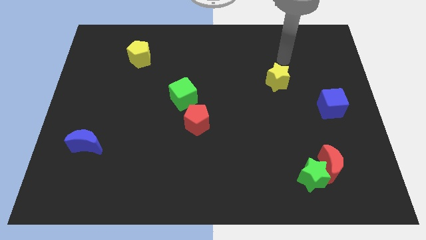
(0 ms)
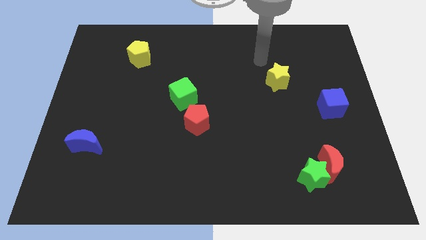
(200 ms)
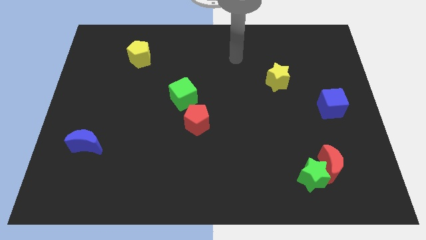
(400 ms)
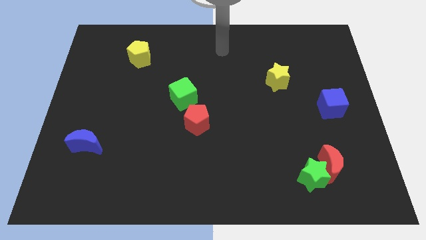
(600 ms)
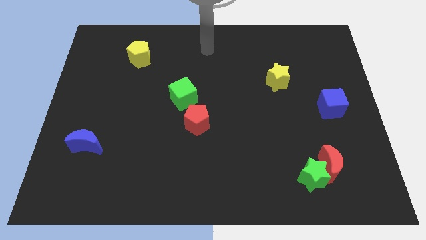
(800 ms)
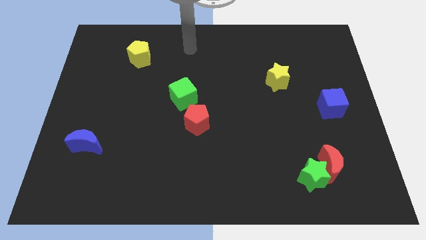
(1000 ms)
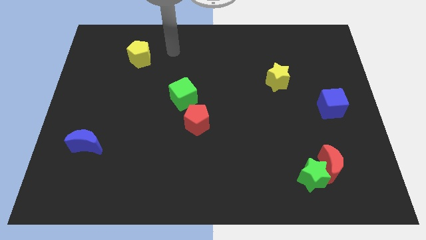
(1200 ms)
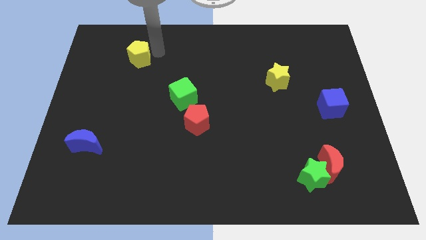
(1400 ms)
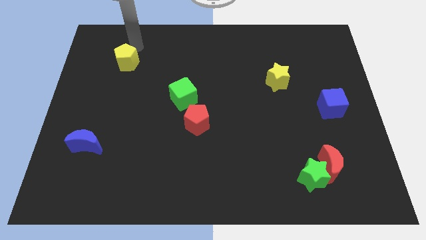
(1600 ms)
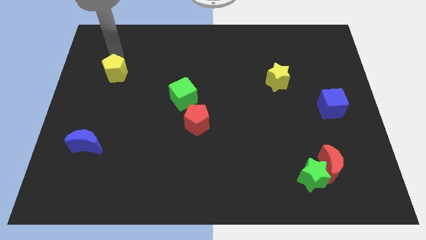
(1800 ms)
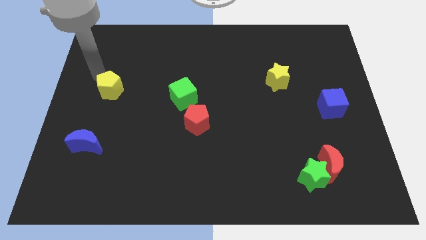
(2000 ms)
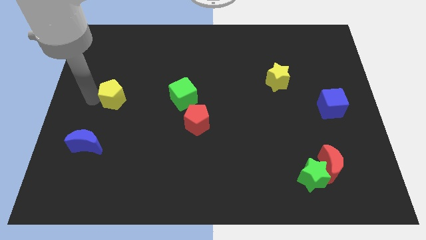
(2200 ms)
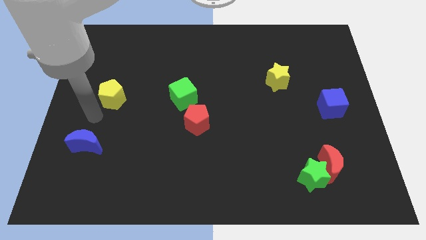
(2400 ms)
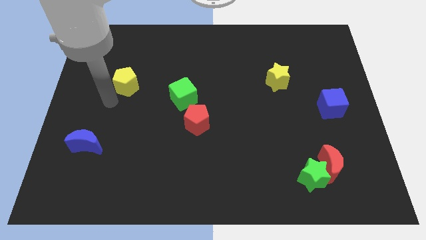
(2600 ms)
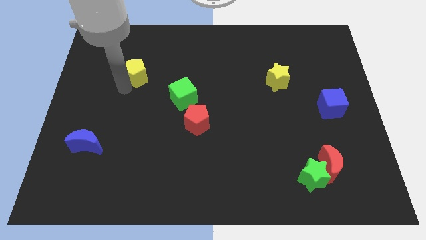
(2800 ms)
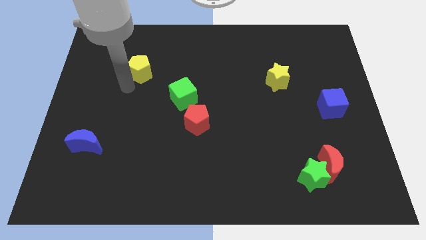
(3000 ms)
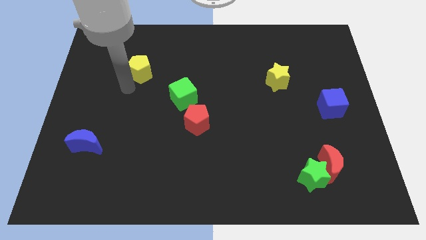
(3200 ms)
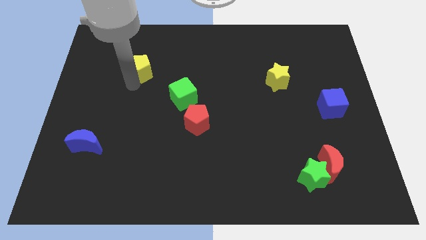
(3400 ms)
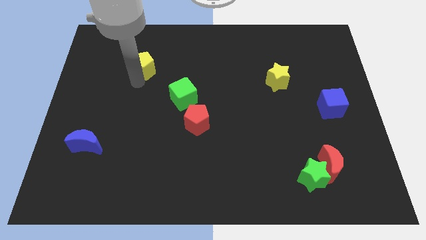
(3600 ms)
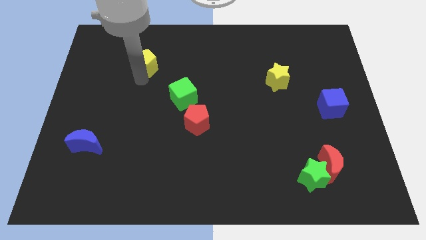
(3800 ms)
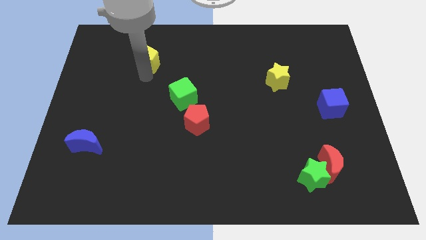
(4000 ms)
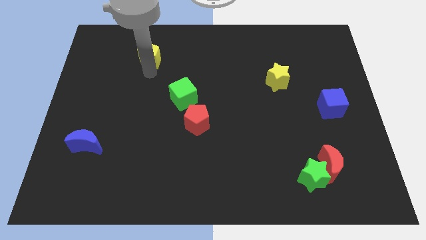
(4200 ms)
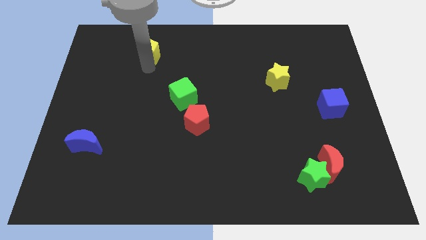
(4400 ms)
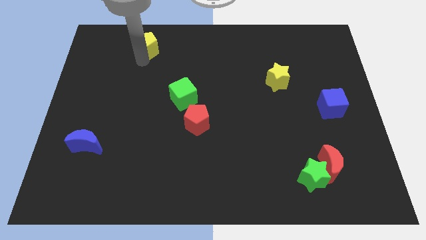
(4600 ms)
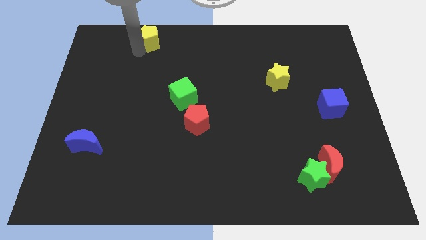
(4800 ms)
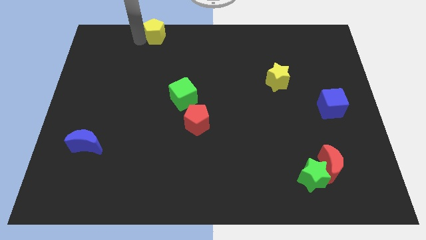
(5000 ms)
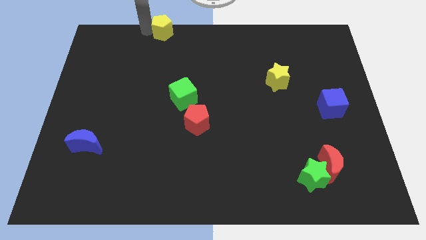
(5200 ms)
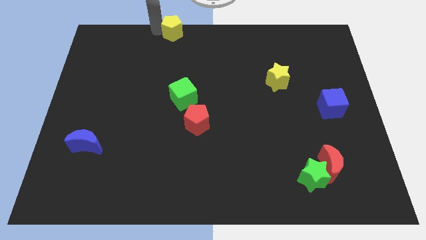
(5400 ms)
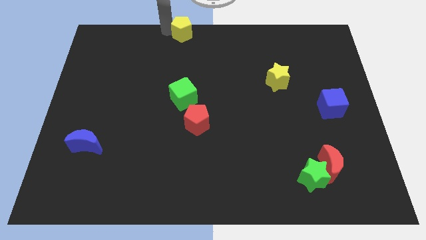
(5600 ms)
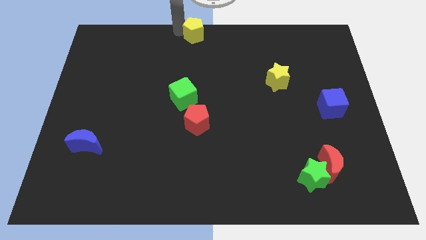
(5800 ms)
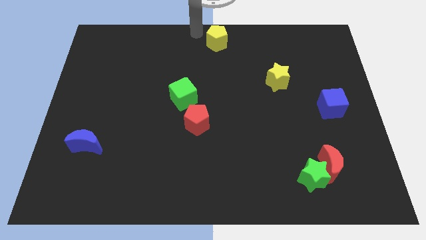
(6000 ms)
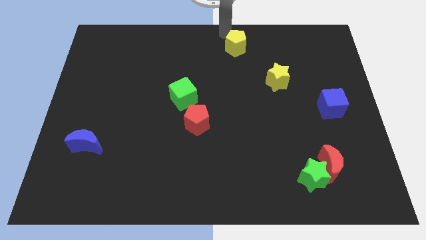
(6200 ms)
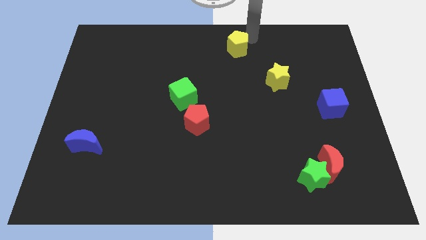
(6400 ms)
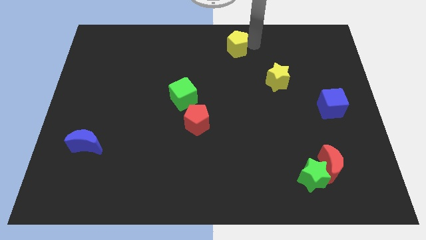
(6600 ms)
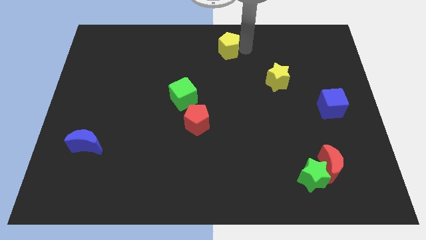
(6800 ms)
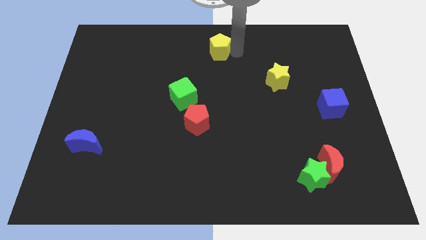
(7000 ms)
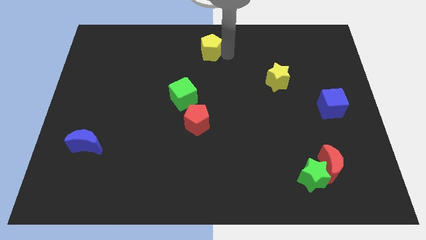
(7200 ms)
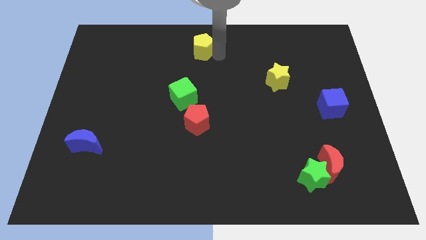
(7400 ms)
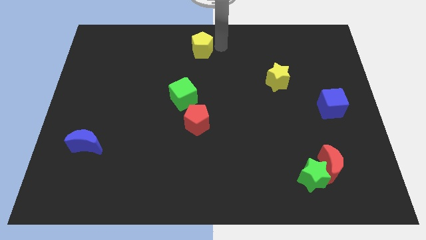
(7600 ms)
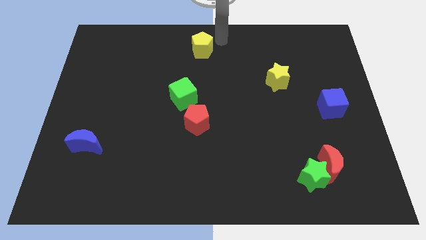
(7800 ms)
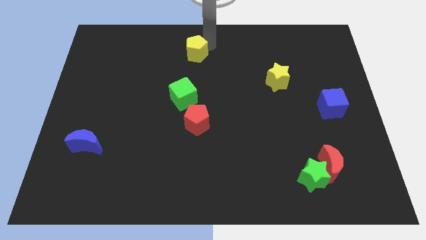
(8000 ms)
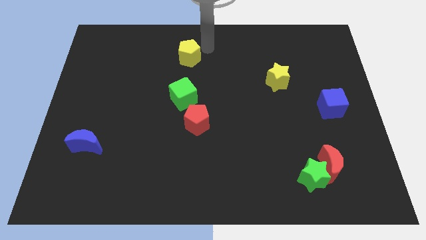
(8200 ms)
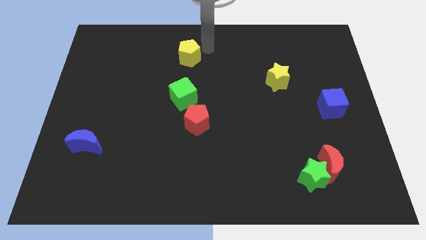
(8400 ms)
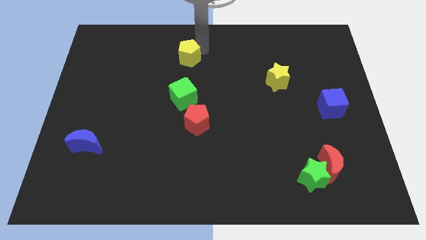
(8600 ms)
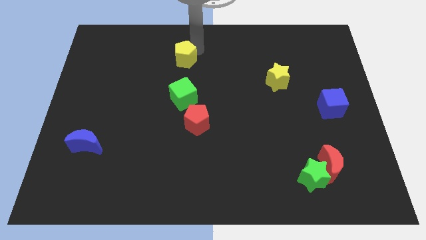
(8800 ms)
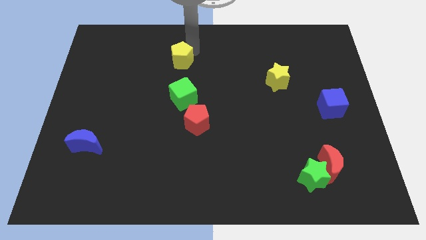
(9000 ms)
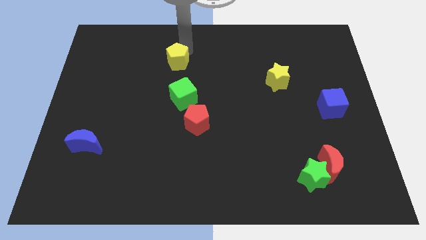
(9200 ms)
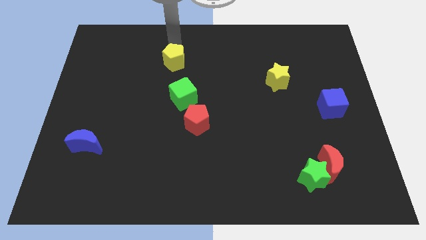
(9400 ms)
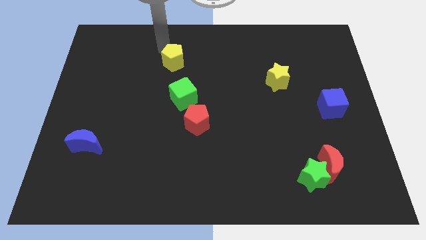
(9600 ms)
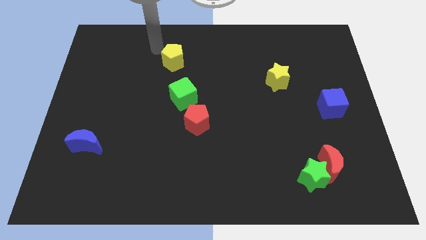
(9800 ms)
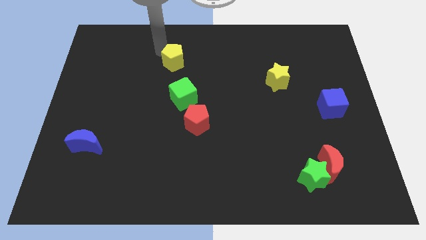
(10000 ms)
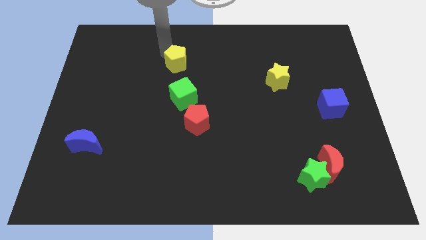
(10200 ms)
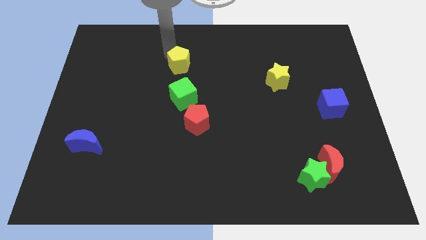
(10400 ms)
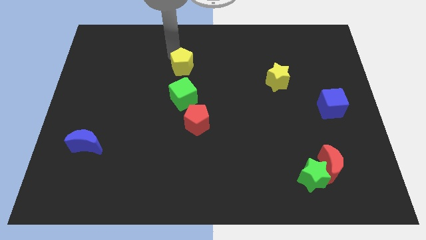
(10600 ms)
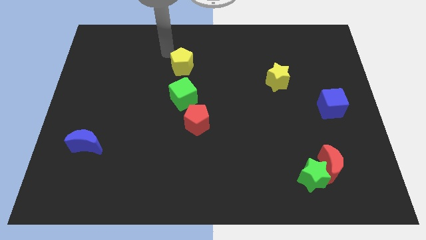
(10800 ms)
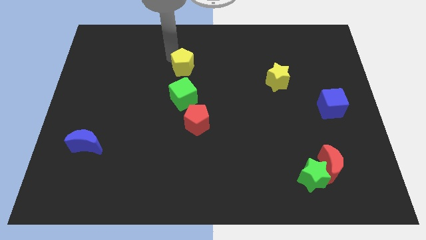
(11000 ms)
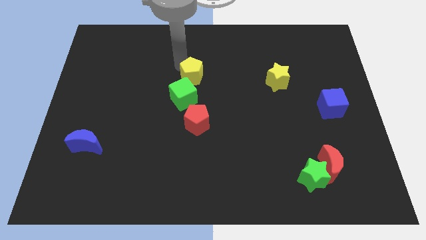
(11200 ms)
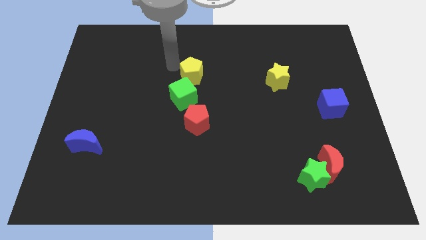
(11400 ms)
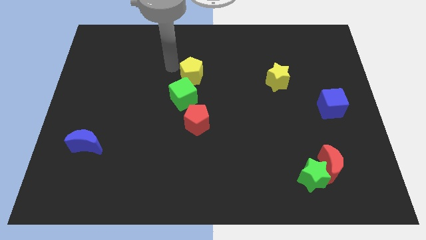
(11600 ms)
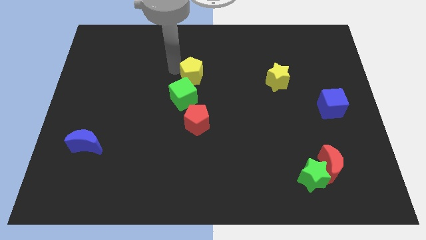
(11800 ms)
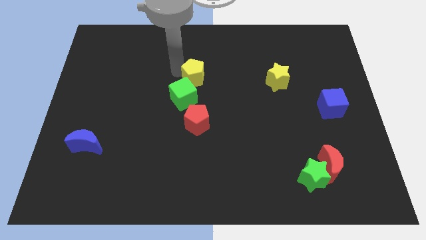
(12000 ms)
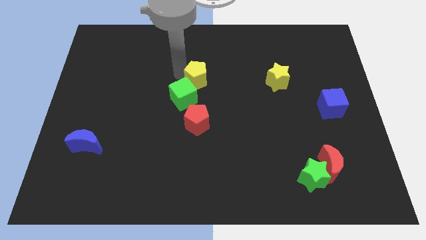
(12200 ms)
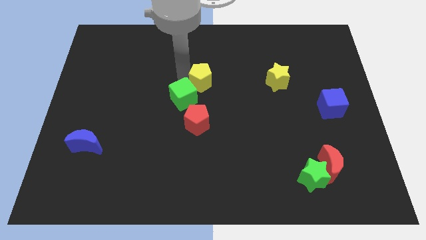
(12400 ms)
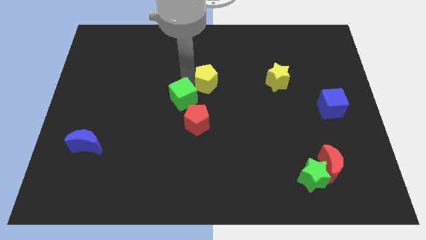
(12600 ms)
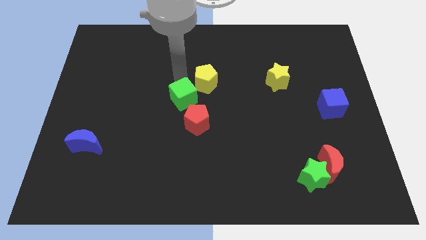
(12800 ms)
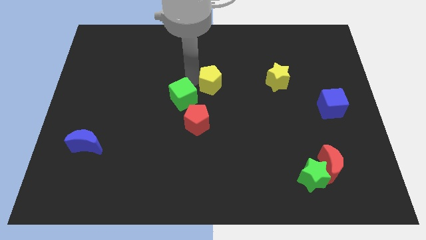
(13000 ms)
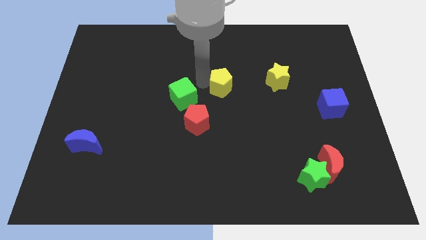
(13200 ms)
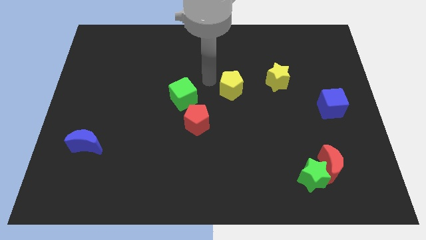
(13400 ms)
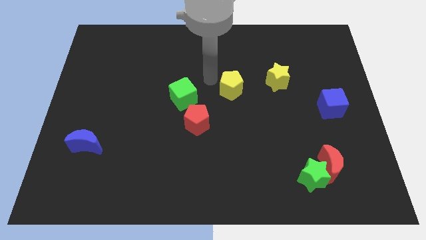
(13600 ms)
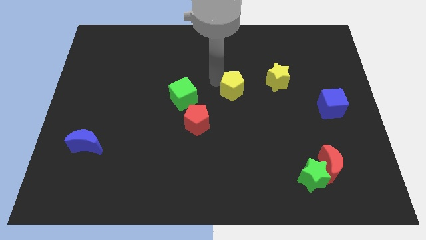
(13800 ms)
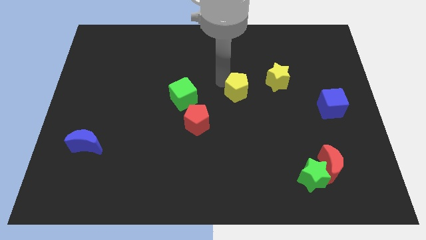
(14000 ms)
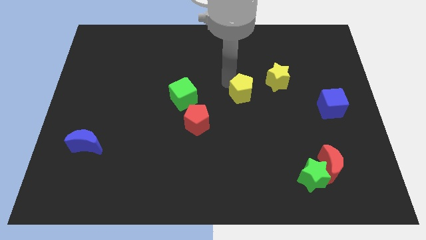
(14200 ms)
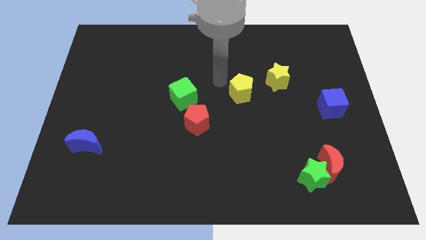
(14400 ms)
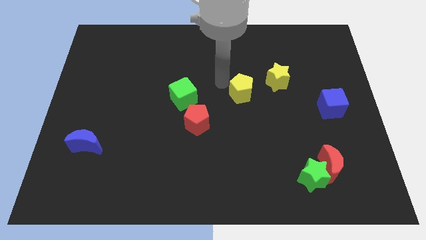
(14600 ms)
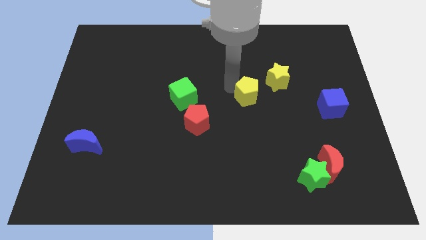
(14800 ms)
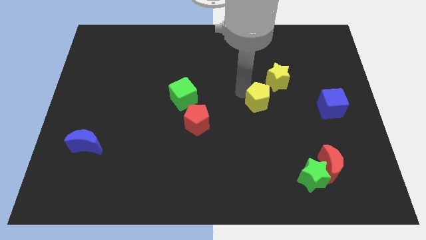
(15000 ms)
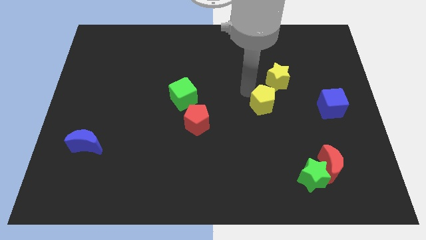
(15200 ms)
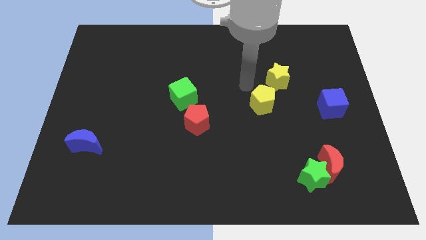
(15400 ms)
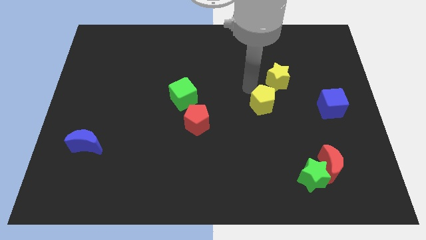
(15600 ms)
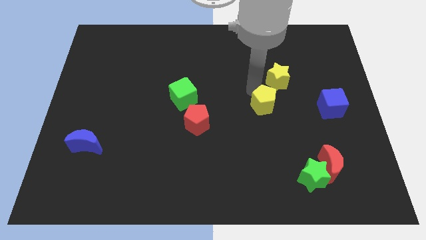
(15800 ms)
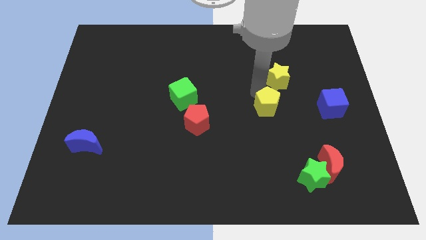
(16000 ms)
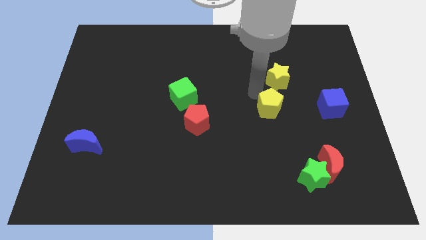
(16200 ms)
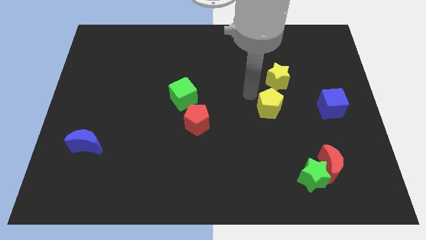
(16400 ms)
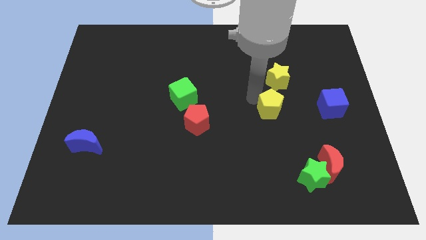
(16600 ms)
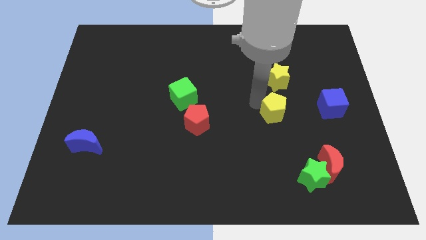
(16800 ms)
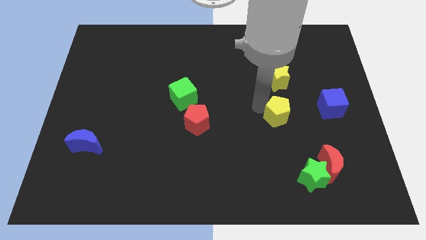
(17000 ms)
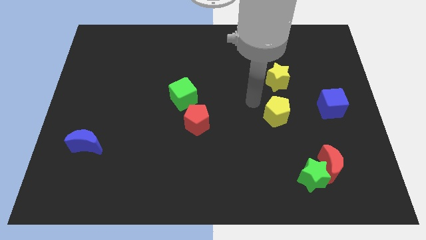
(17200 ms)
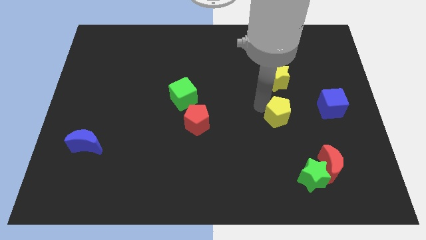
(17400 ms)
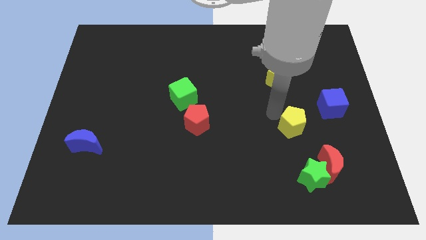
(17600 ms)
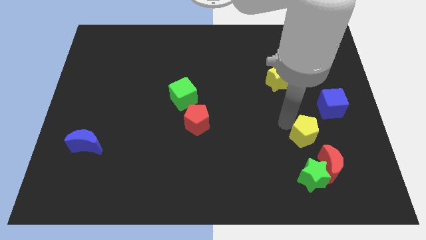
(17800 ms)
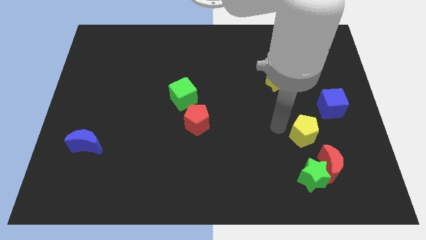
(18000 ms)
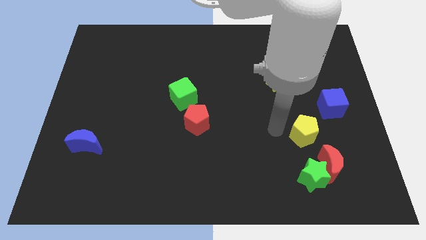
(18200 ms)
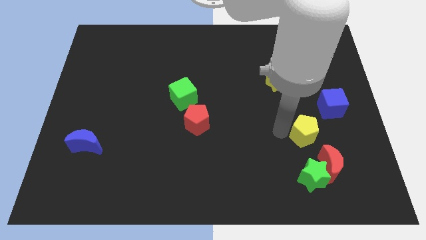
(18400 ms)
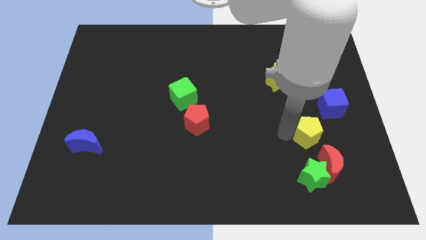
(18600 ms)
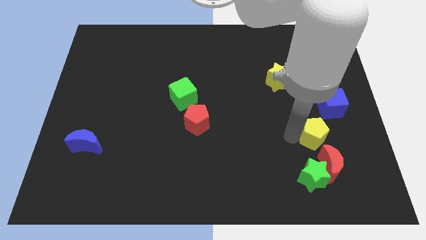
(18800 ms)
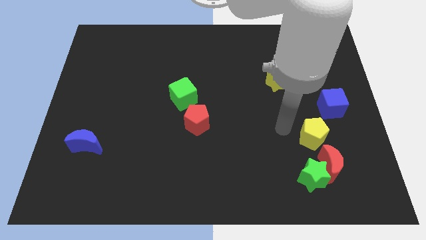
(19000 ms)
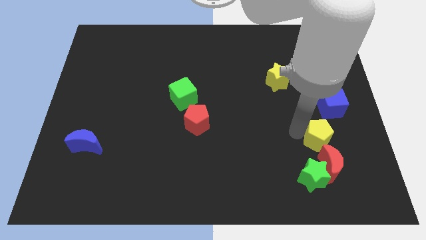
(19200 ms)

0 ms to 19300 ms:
put the yellow pentagon below the blue cube
